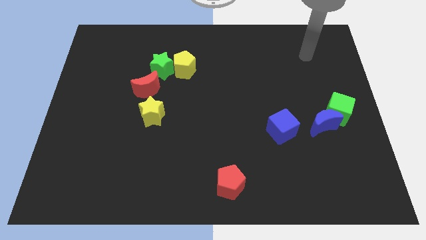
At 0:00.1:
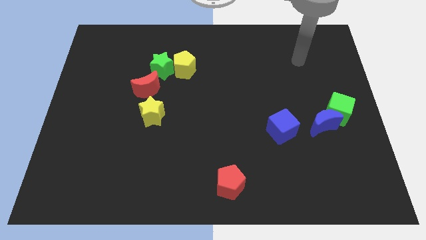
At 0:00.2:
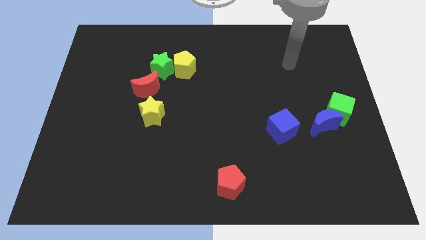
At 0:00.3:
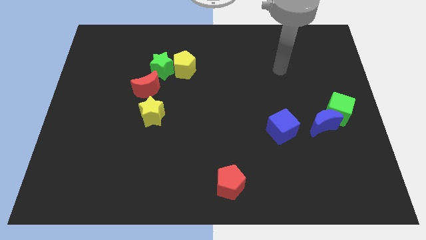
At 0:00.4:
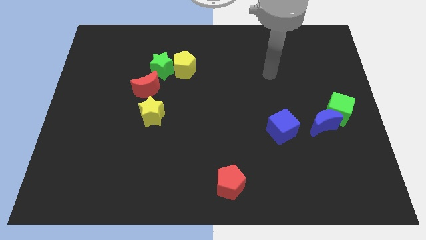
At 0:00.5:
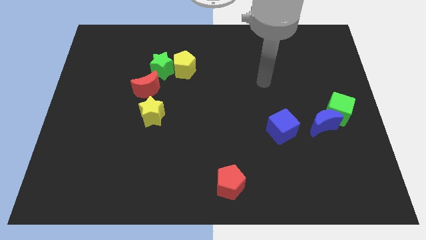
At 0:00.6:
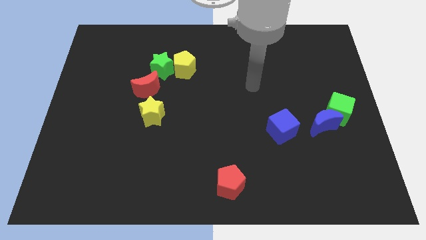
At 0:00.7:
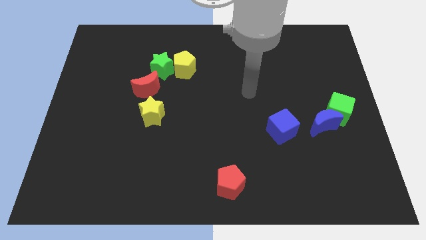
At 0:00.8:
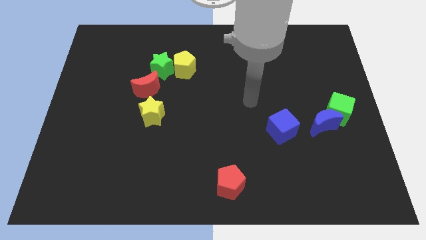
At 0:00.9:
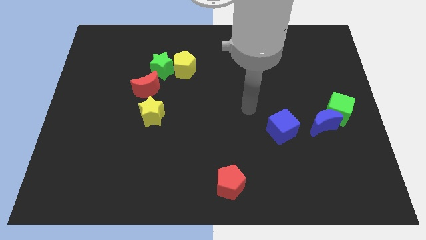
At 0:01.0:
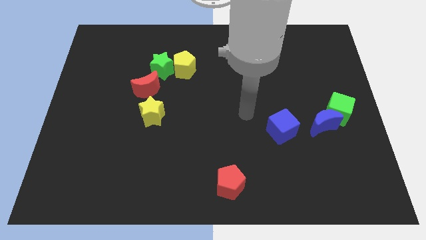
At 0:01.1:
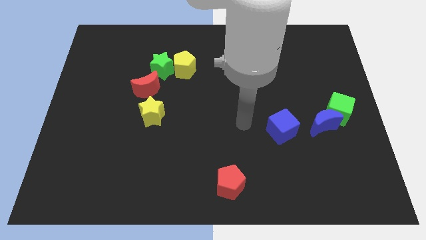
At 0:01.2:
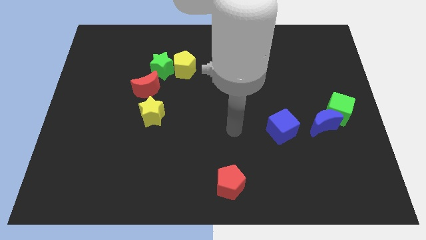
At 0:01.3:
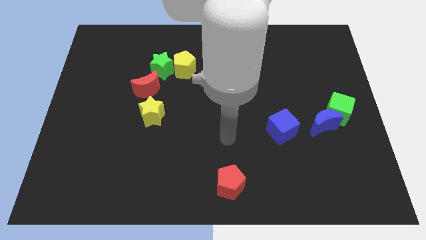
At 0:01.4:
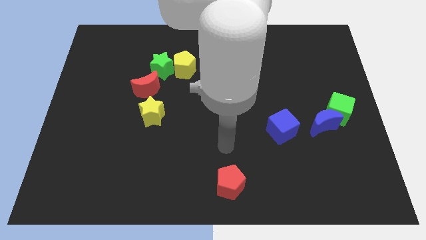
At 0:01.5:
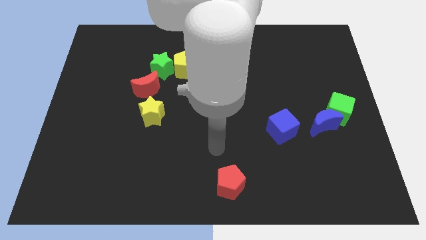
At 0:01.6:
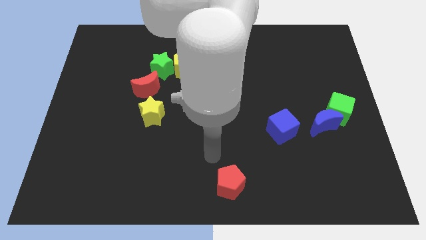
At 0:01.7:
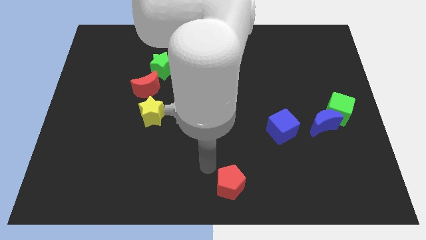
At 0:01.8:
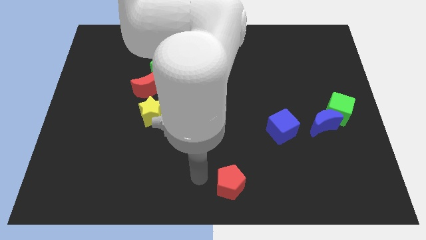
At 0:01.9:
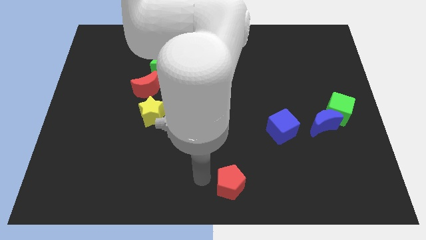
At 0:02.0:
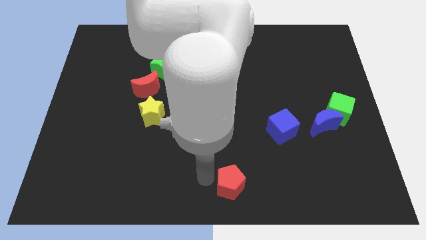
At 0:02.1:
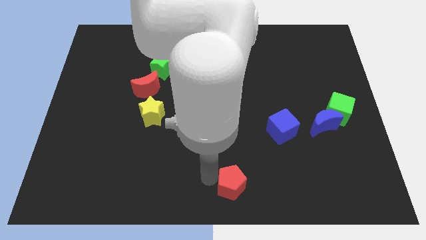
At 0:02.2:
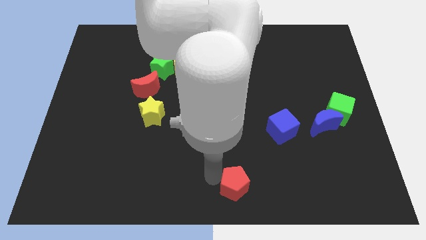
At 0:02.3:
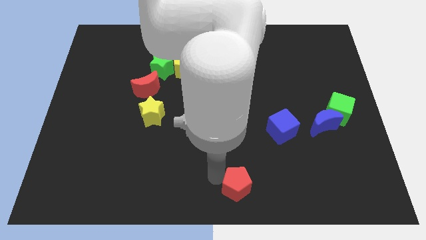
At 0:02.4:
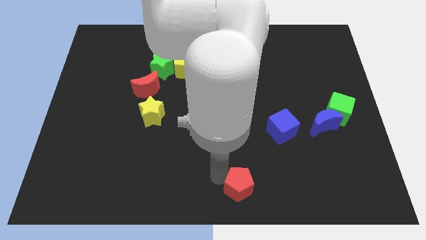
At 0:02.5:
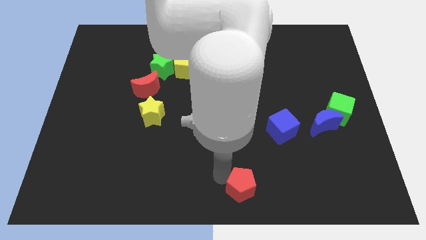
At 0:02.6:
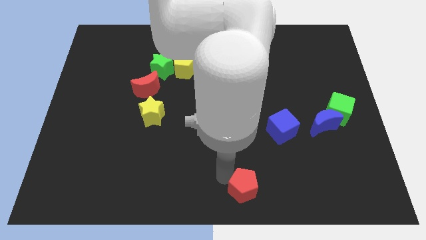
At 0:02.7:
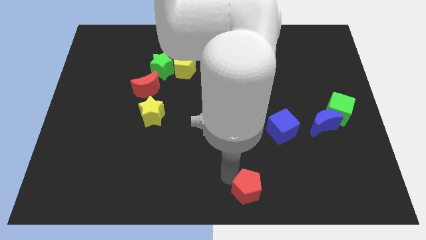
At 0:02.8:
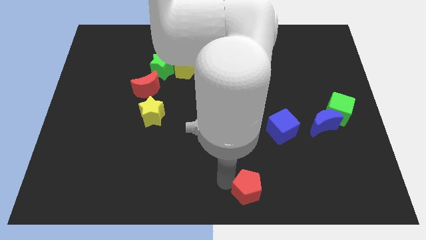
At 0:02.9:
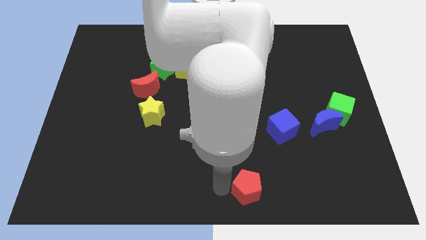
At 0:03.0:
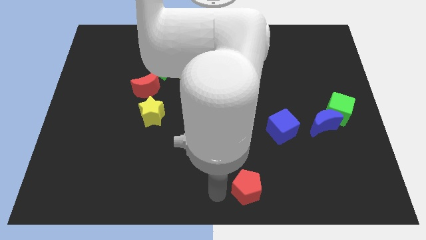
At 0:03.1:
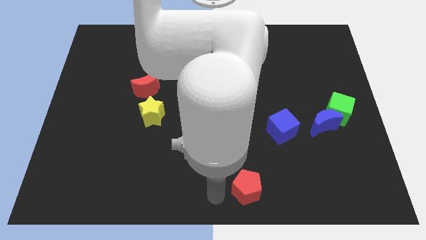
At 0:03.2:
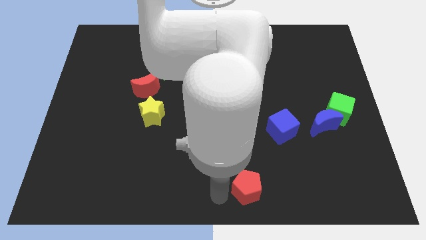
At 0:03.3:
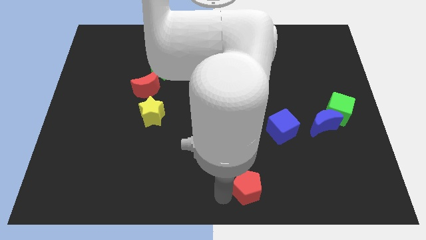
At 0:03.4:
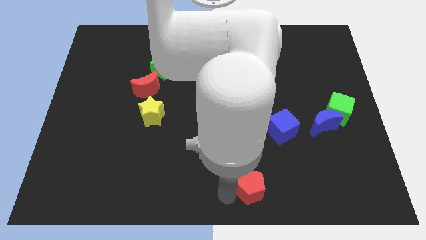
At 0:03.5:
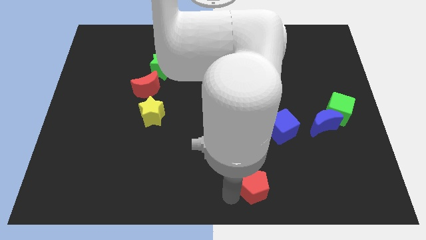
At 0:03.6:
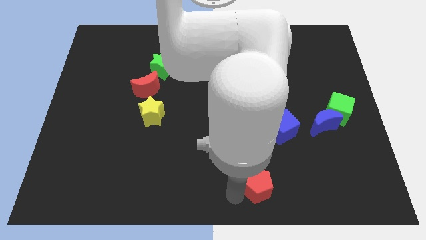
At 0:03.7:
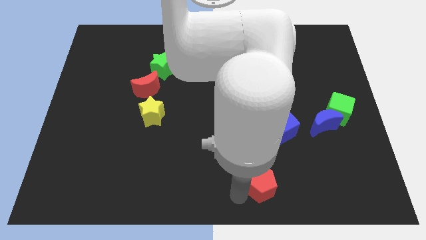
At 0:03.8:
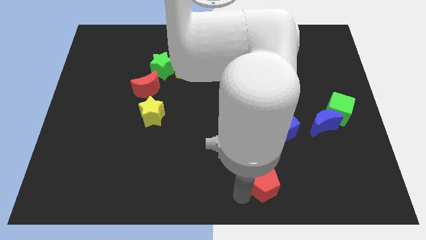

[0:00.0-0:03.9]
push the red pentagon to the right a bit

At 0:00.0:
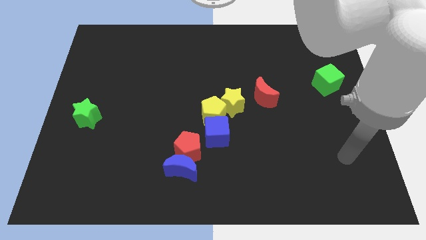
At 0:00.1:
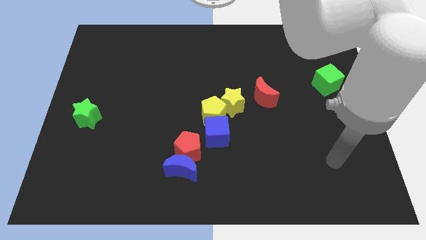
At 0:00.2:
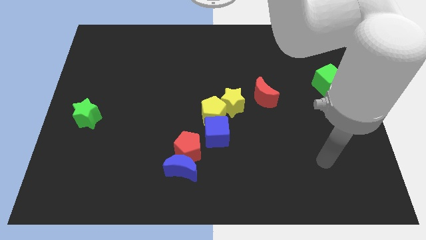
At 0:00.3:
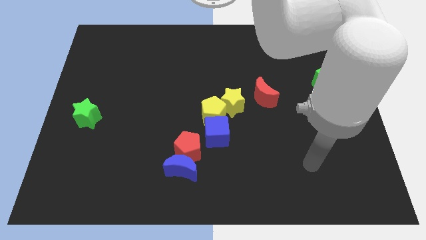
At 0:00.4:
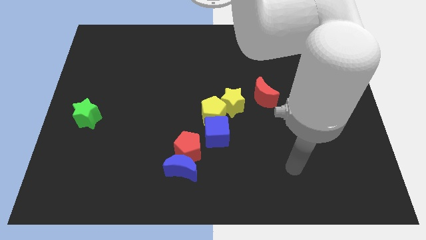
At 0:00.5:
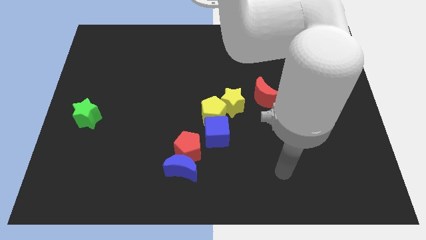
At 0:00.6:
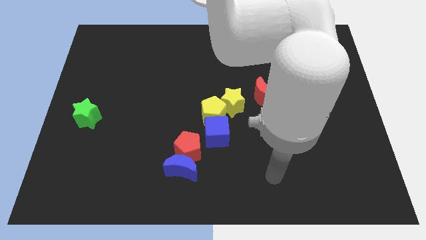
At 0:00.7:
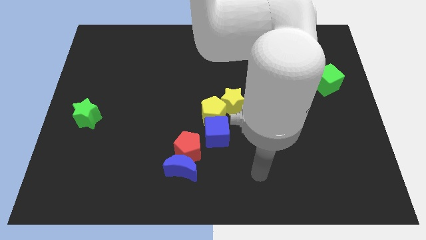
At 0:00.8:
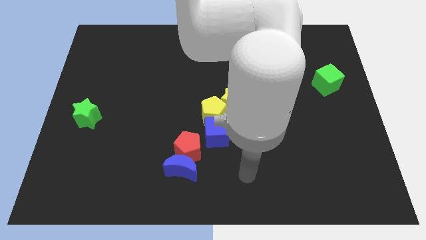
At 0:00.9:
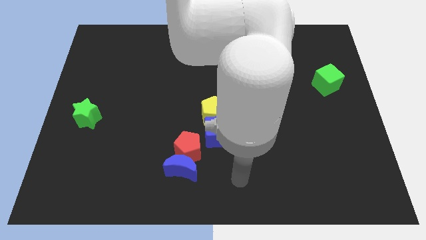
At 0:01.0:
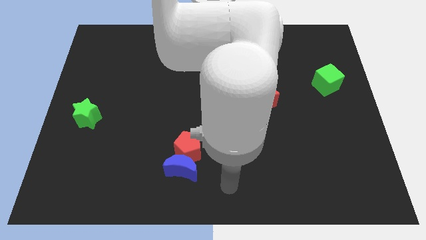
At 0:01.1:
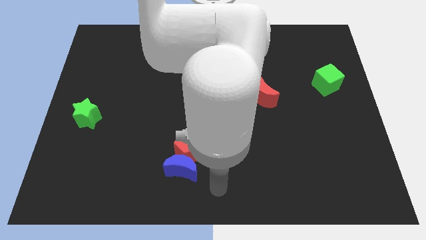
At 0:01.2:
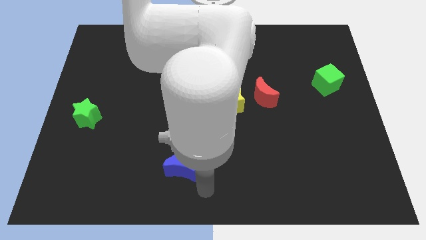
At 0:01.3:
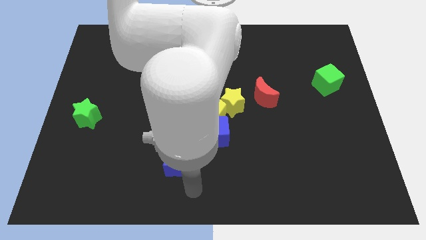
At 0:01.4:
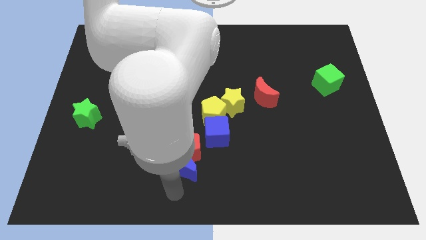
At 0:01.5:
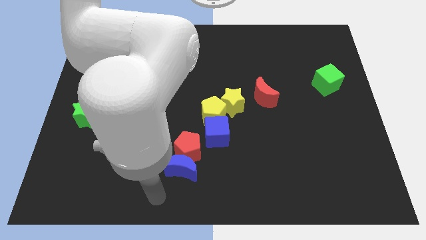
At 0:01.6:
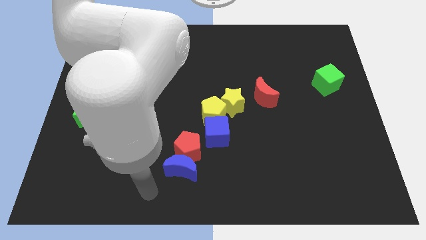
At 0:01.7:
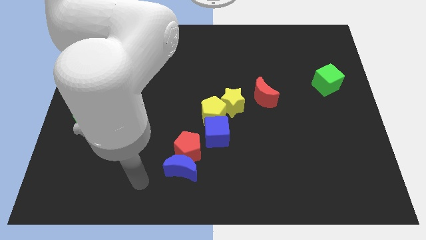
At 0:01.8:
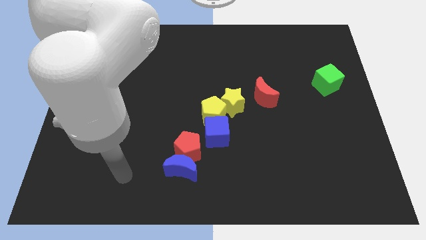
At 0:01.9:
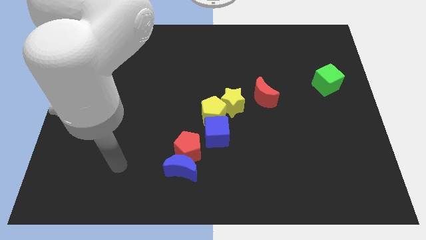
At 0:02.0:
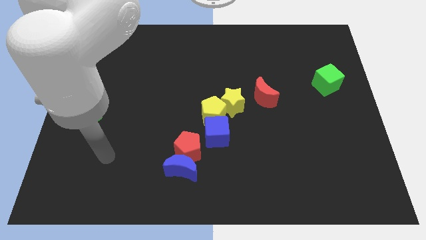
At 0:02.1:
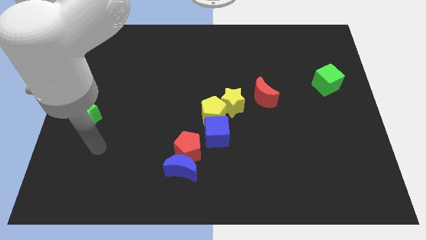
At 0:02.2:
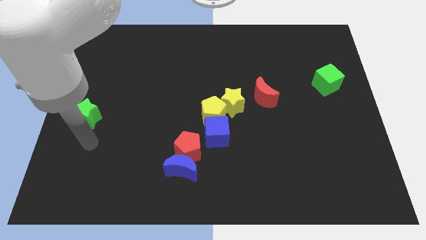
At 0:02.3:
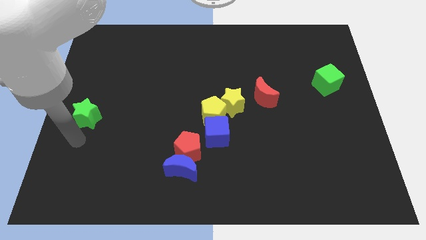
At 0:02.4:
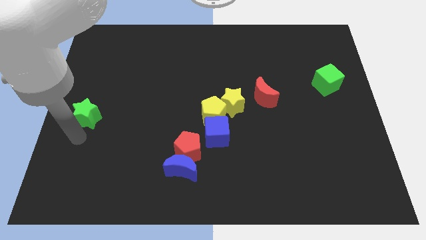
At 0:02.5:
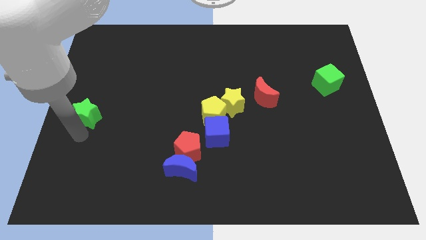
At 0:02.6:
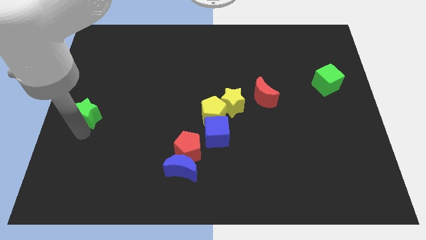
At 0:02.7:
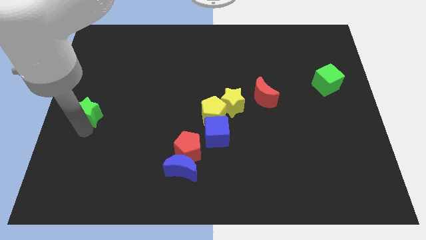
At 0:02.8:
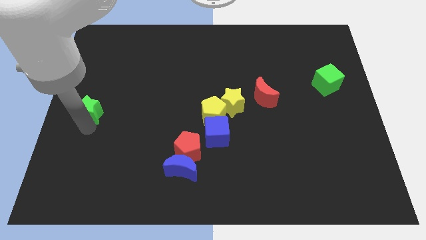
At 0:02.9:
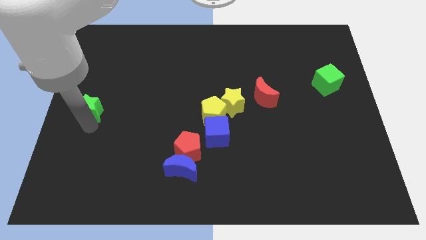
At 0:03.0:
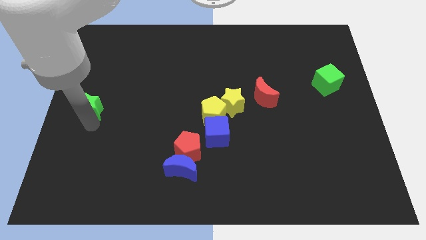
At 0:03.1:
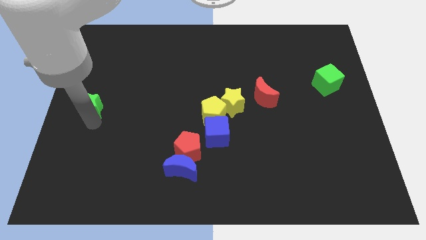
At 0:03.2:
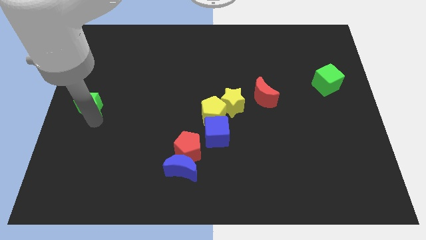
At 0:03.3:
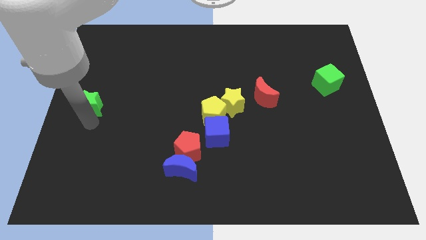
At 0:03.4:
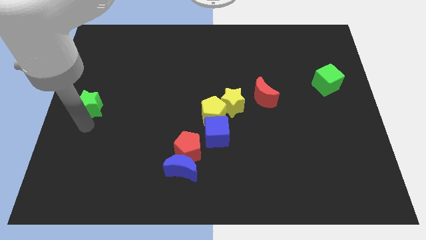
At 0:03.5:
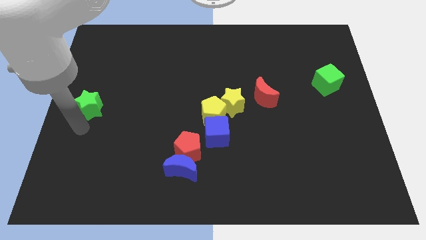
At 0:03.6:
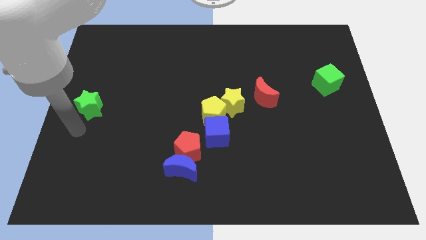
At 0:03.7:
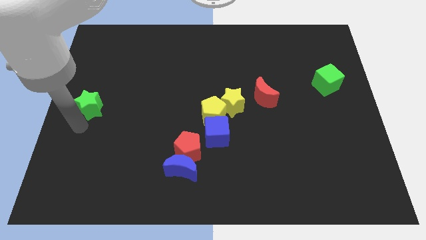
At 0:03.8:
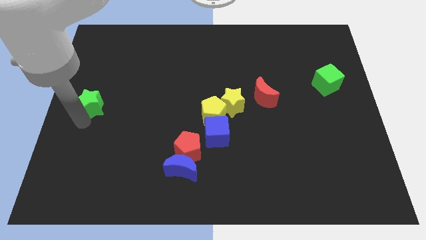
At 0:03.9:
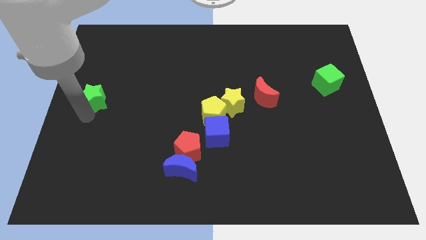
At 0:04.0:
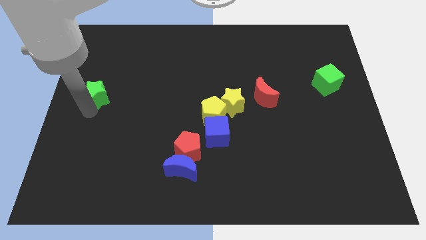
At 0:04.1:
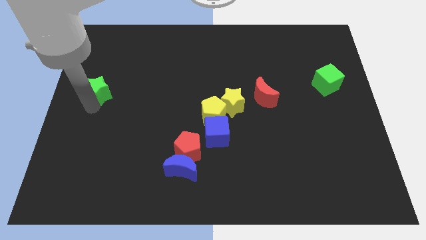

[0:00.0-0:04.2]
push the green star upwards a little
